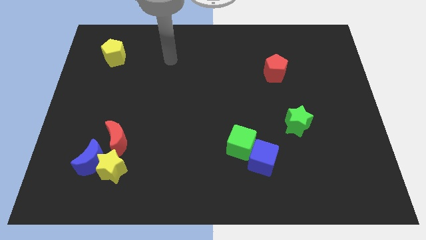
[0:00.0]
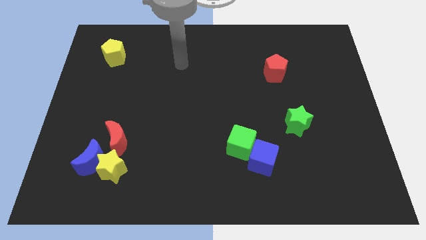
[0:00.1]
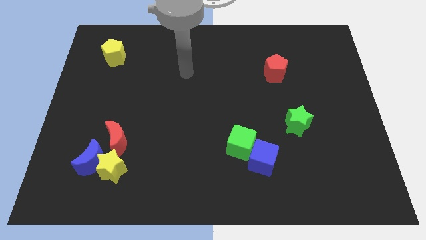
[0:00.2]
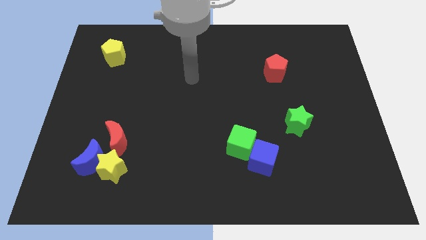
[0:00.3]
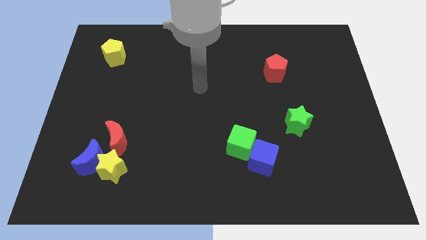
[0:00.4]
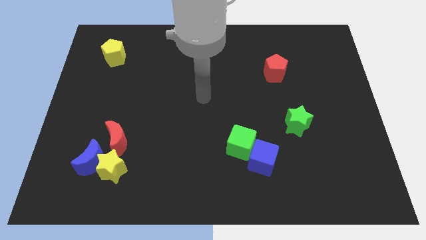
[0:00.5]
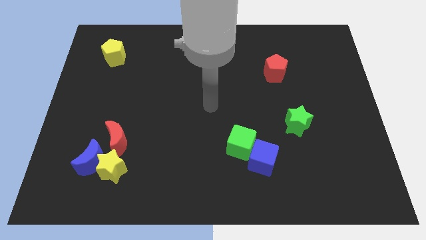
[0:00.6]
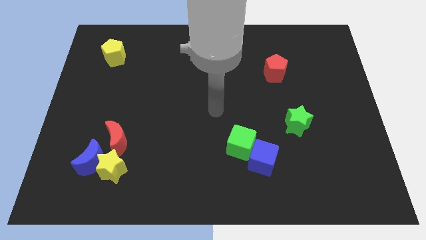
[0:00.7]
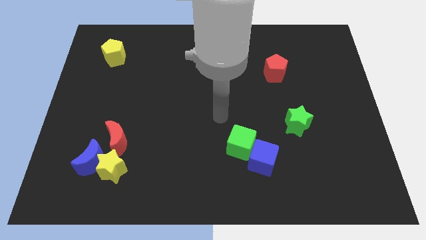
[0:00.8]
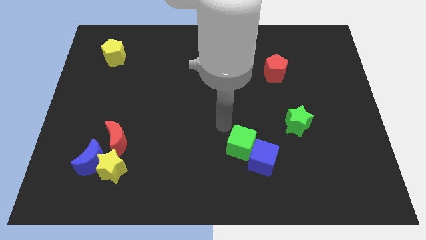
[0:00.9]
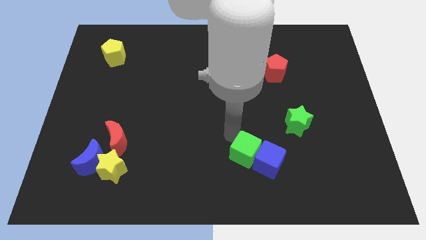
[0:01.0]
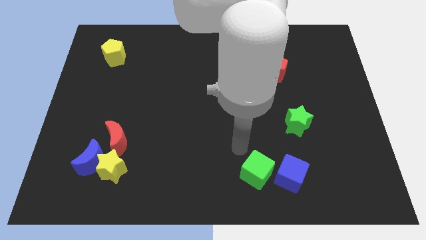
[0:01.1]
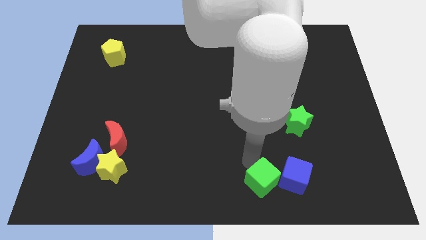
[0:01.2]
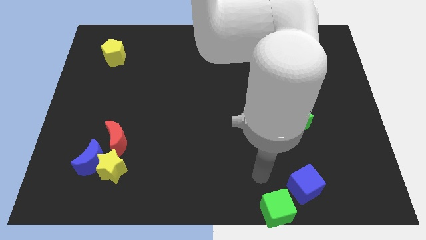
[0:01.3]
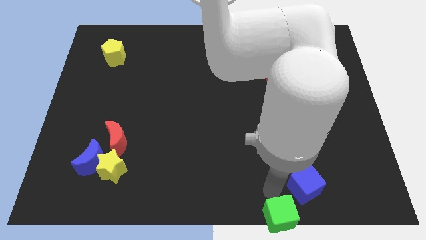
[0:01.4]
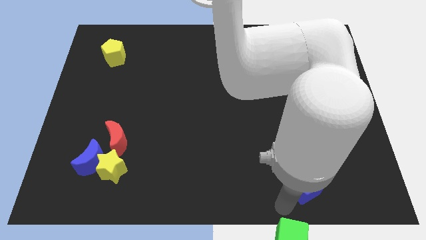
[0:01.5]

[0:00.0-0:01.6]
move the blue cube away from the green cube

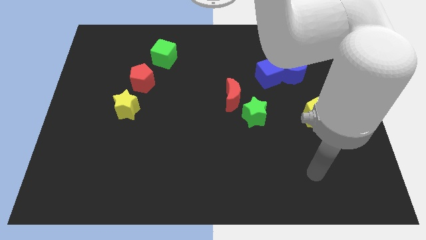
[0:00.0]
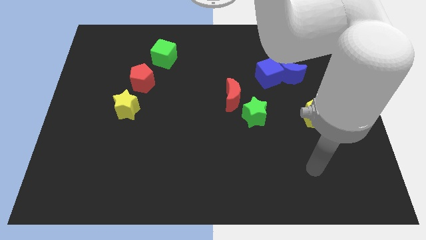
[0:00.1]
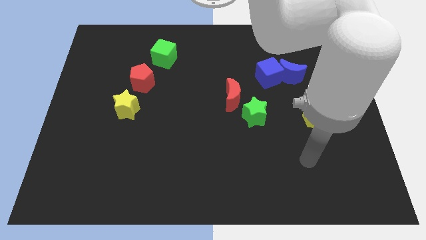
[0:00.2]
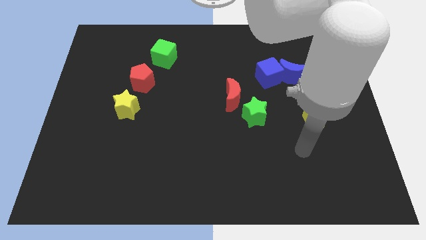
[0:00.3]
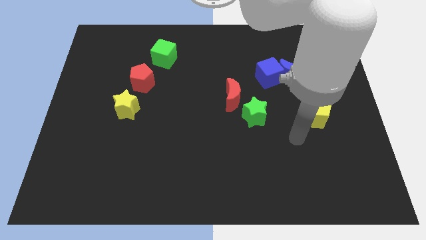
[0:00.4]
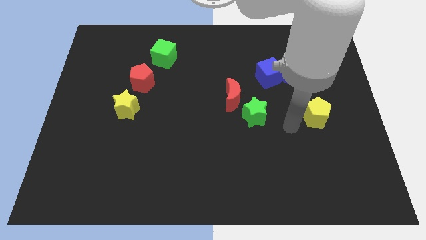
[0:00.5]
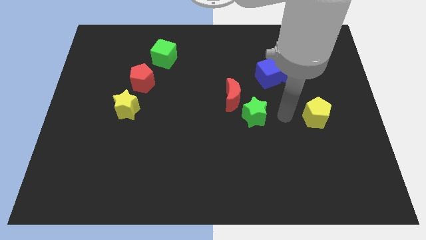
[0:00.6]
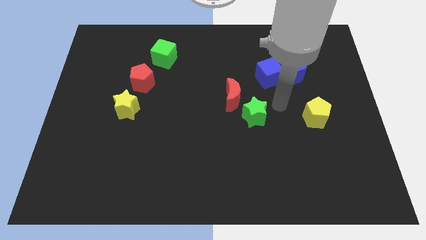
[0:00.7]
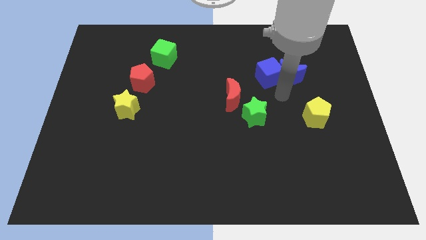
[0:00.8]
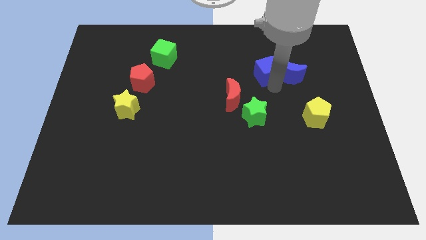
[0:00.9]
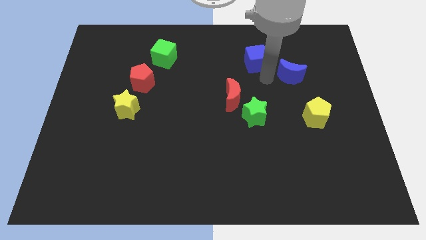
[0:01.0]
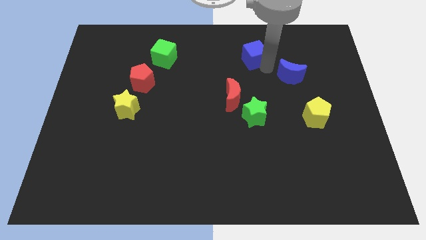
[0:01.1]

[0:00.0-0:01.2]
pull the blue moon apart from the blue cube

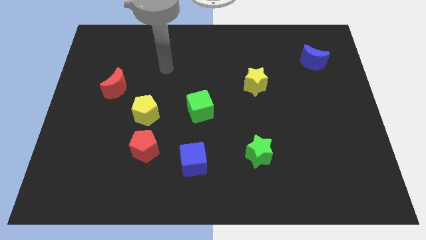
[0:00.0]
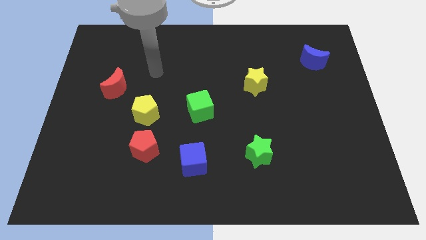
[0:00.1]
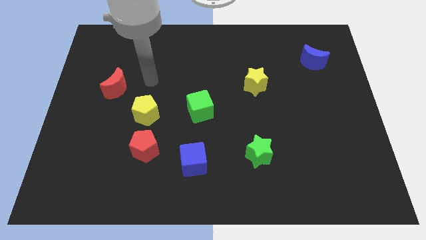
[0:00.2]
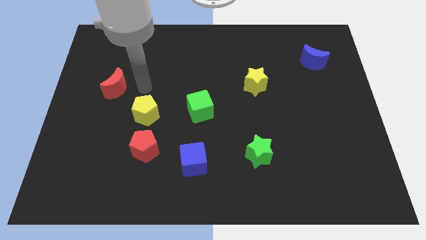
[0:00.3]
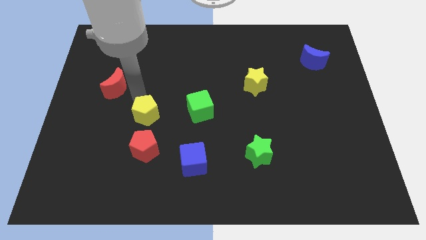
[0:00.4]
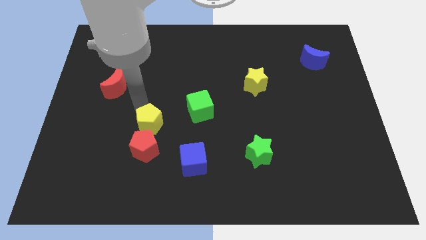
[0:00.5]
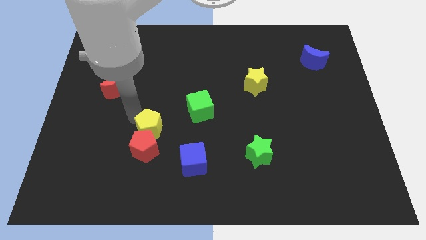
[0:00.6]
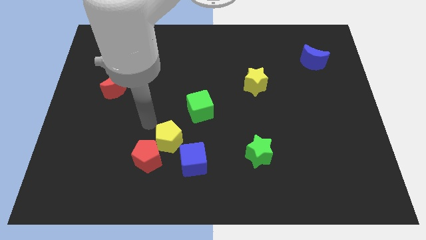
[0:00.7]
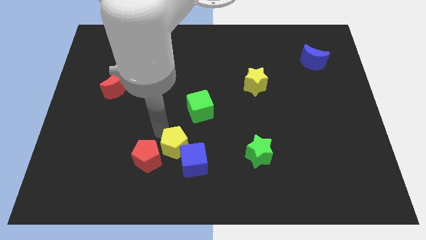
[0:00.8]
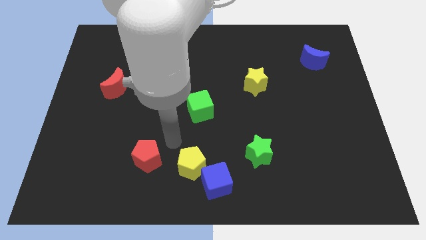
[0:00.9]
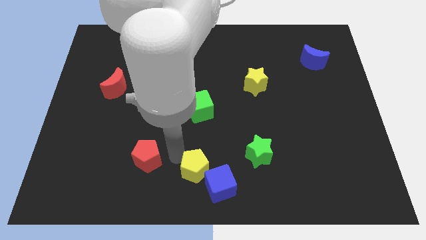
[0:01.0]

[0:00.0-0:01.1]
separate the red pentagon from the yellow pentagon

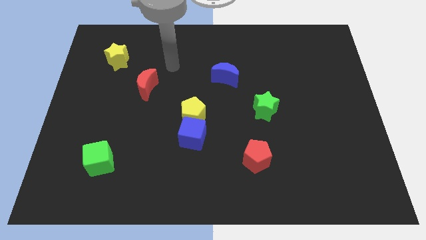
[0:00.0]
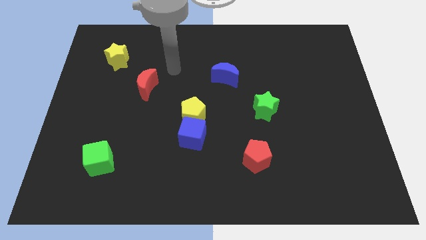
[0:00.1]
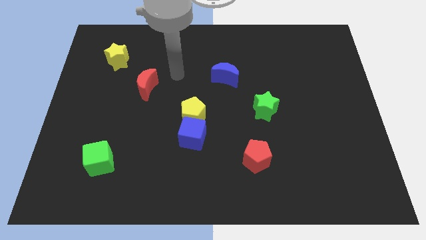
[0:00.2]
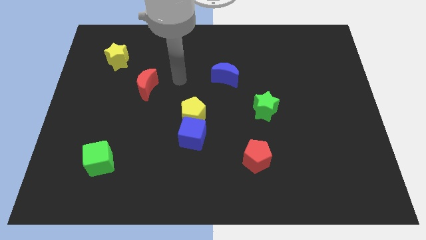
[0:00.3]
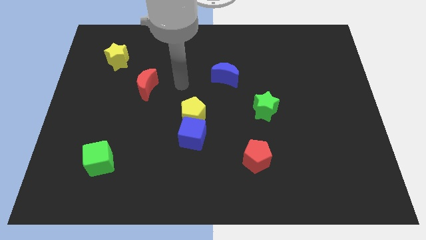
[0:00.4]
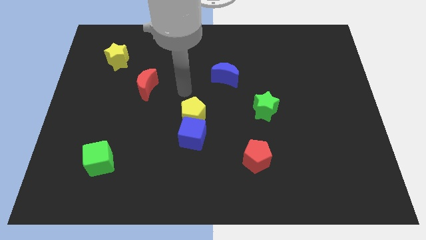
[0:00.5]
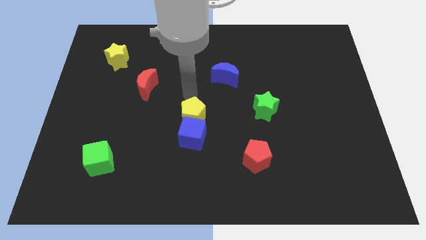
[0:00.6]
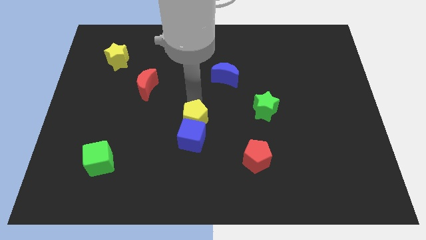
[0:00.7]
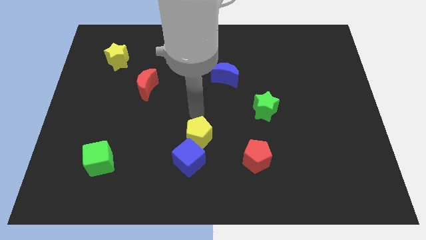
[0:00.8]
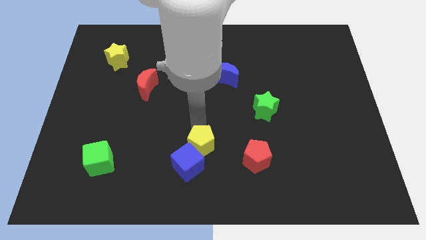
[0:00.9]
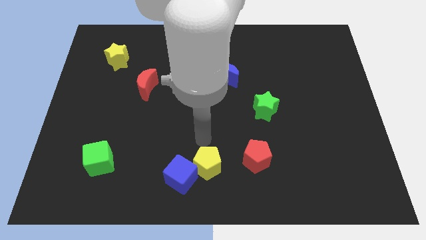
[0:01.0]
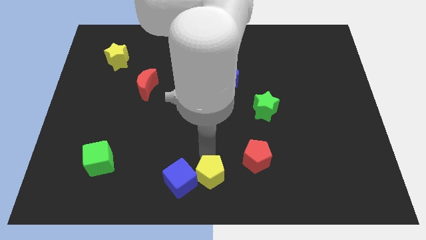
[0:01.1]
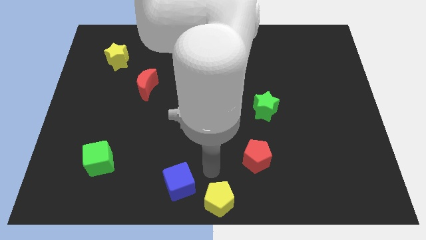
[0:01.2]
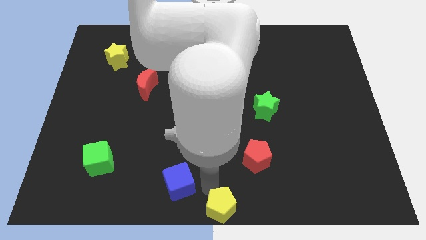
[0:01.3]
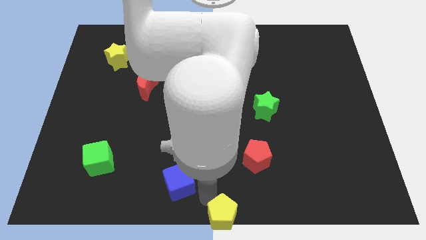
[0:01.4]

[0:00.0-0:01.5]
separate the blue cube from the yellow pentagon

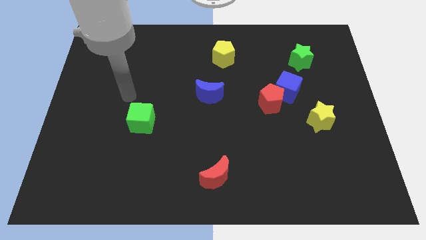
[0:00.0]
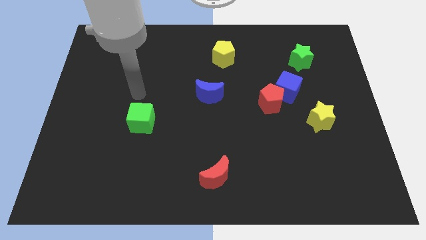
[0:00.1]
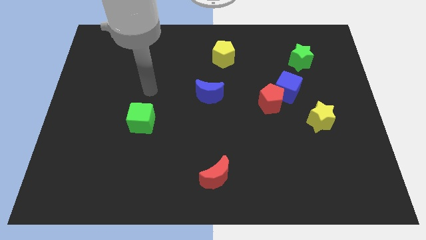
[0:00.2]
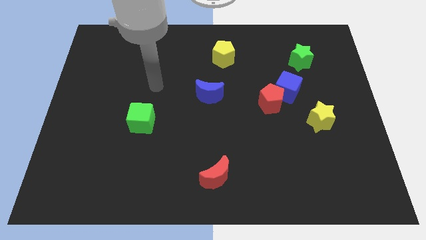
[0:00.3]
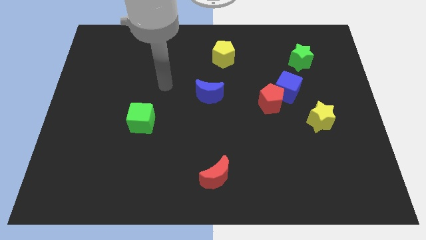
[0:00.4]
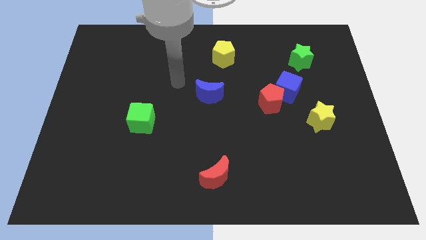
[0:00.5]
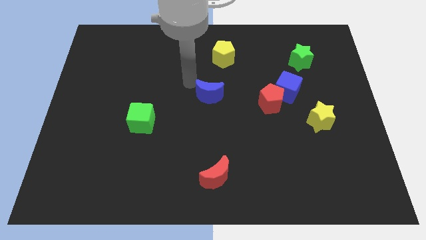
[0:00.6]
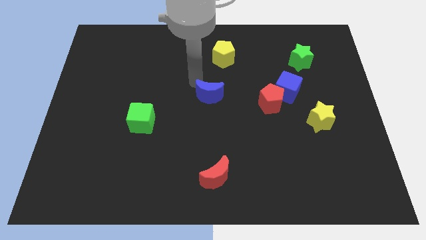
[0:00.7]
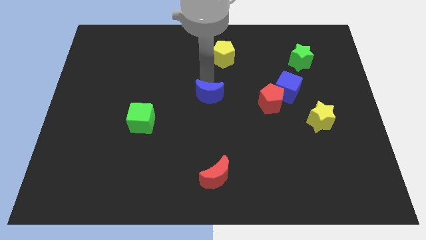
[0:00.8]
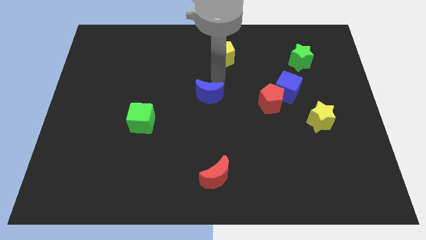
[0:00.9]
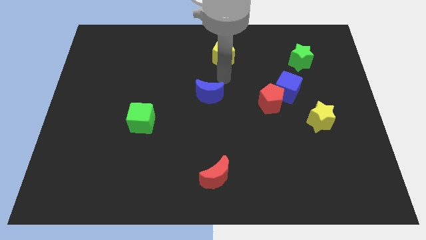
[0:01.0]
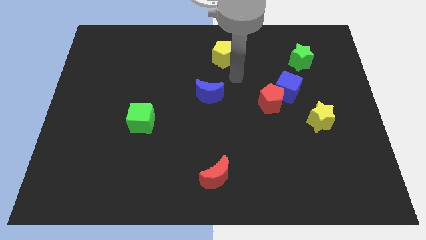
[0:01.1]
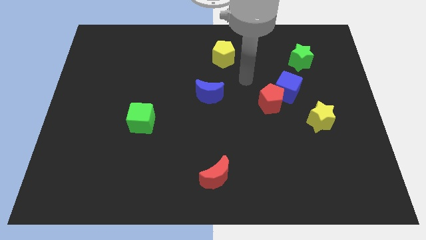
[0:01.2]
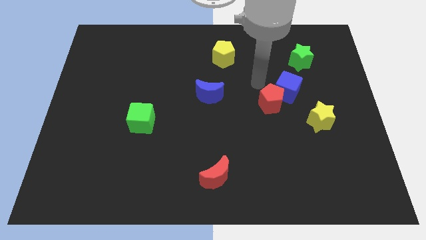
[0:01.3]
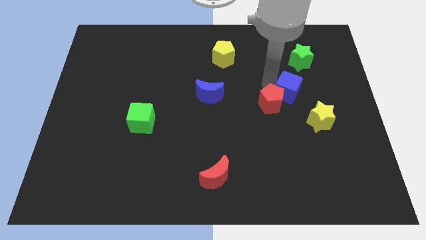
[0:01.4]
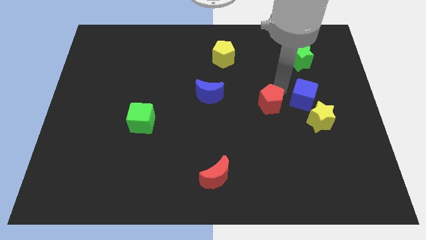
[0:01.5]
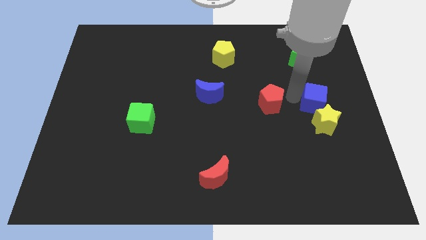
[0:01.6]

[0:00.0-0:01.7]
move the red pentagon away from the blue cube

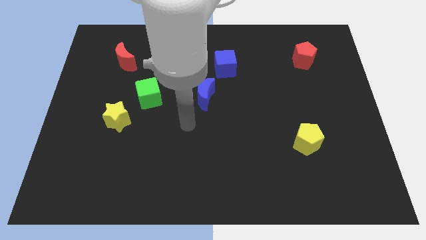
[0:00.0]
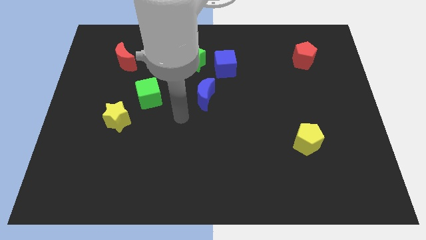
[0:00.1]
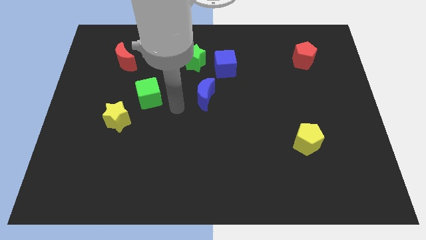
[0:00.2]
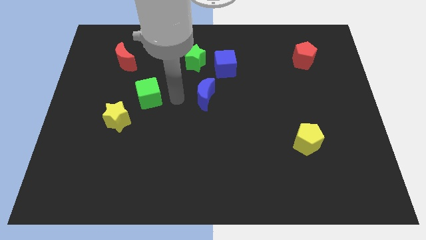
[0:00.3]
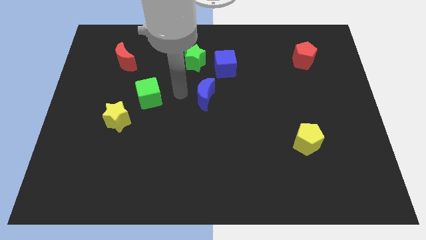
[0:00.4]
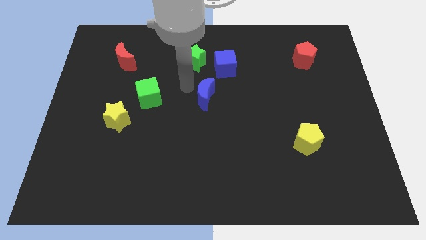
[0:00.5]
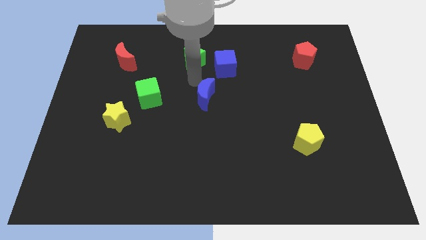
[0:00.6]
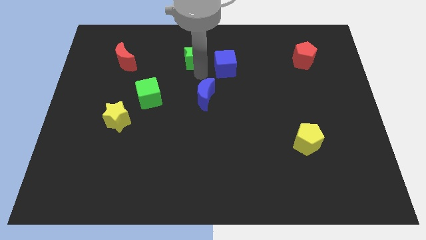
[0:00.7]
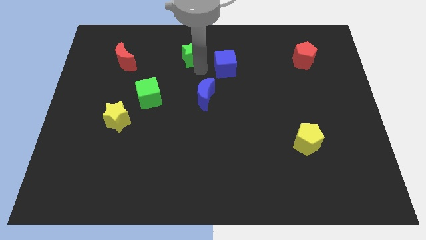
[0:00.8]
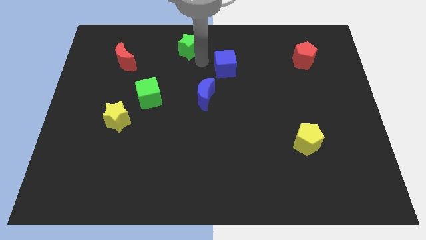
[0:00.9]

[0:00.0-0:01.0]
pull the blue cube apart from the green star

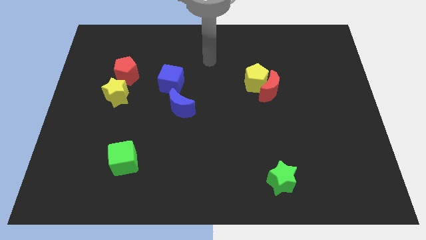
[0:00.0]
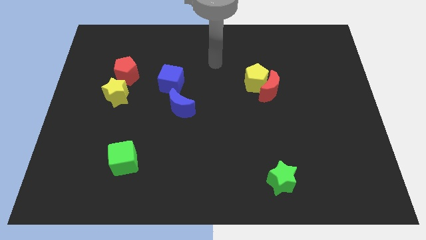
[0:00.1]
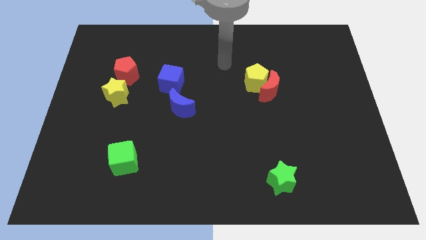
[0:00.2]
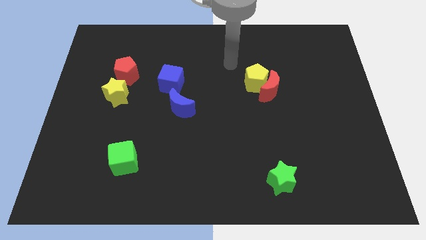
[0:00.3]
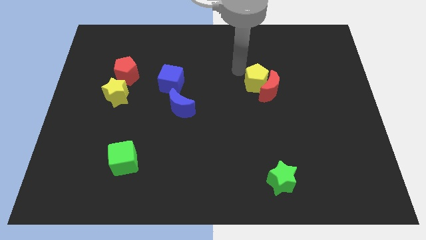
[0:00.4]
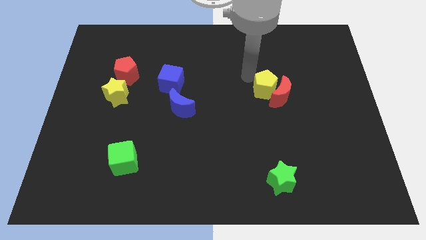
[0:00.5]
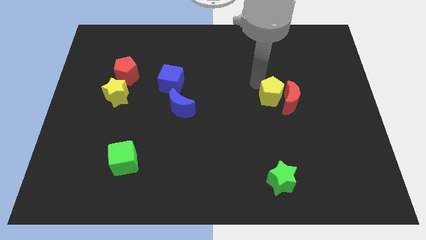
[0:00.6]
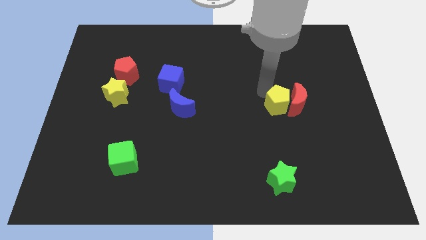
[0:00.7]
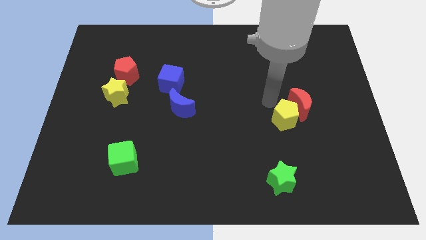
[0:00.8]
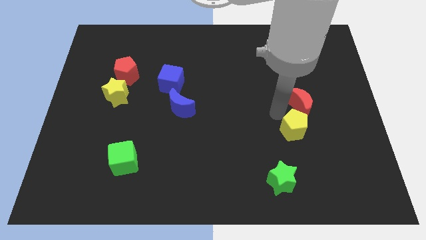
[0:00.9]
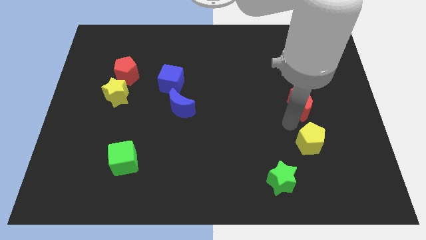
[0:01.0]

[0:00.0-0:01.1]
move the red moon away from the yellow pentagon
